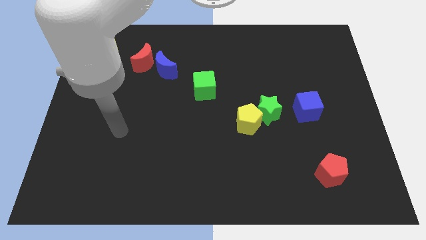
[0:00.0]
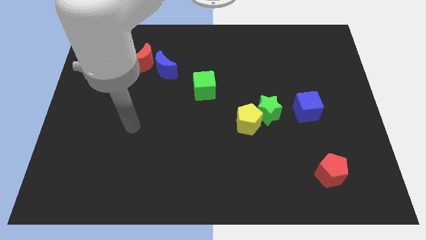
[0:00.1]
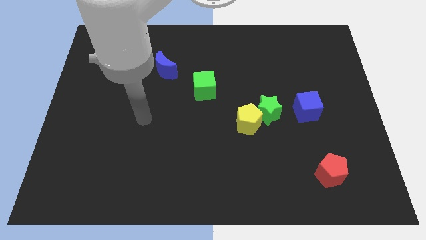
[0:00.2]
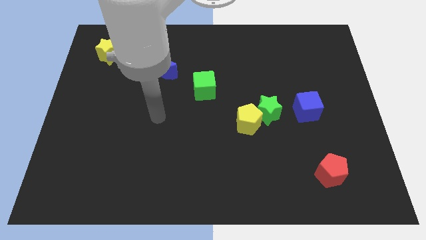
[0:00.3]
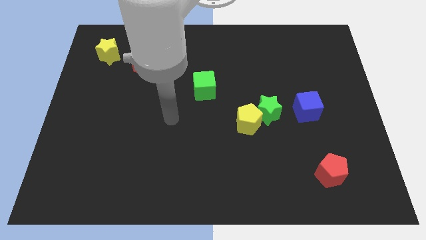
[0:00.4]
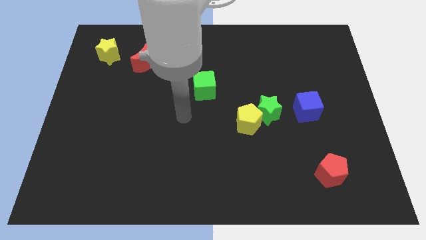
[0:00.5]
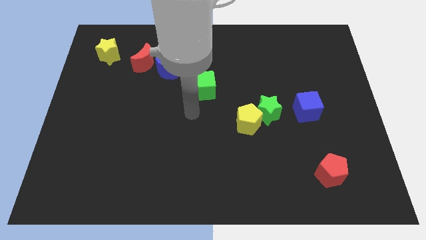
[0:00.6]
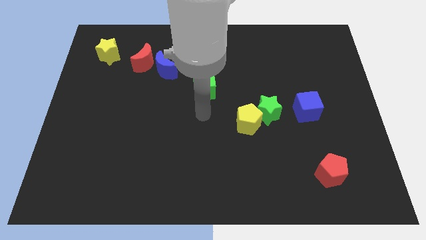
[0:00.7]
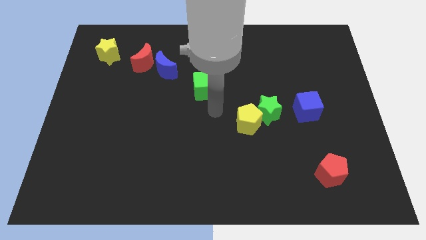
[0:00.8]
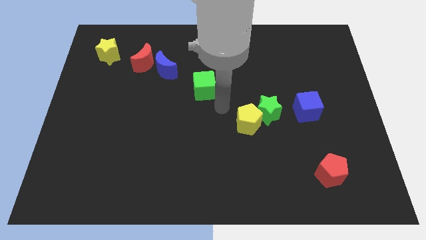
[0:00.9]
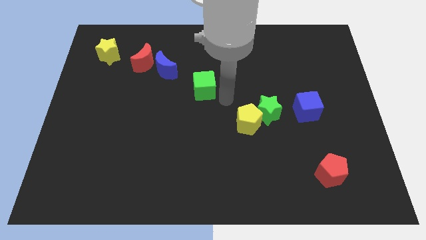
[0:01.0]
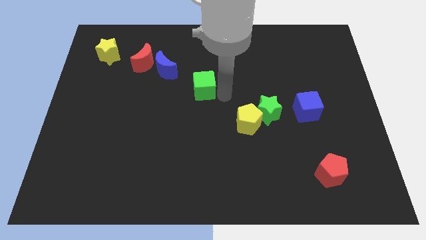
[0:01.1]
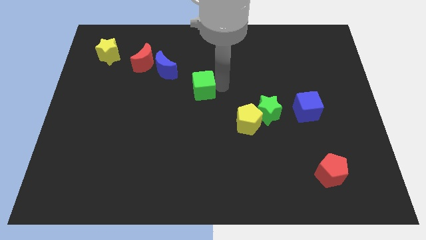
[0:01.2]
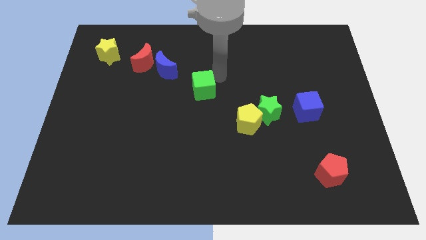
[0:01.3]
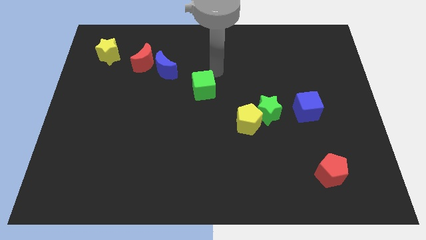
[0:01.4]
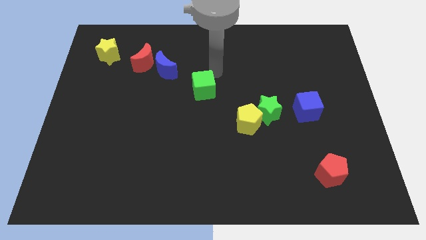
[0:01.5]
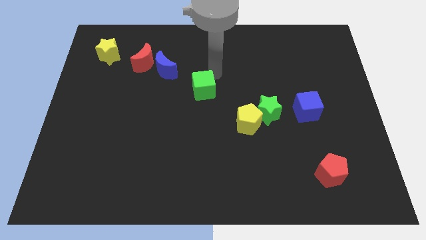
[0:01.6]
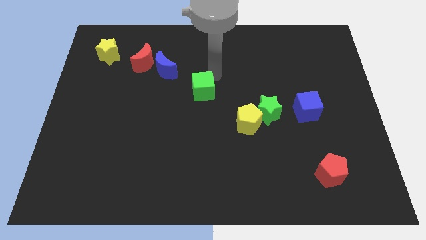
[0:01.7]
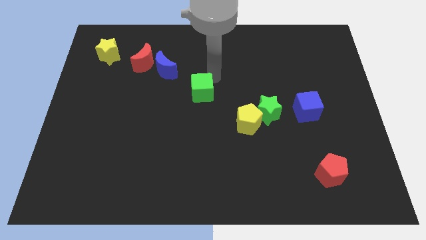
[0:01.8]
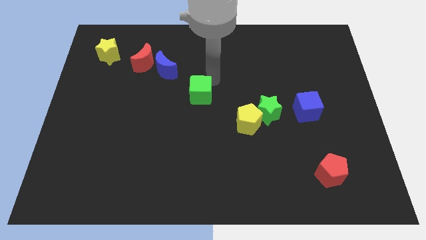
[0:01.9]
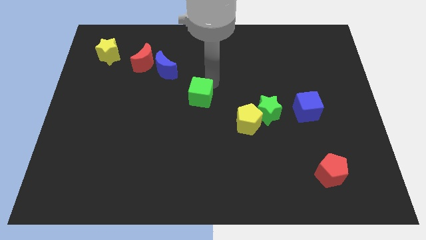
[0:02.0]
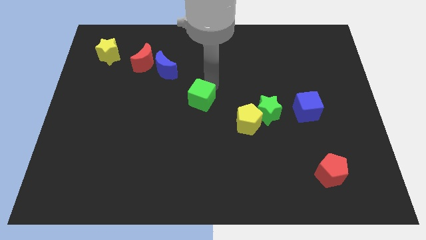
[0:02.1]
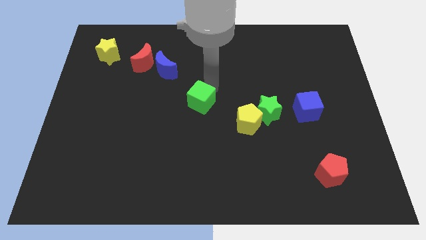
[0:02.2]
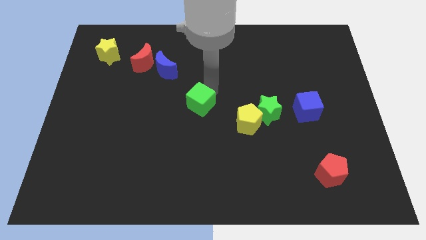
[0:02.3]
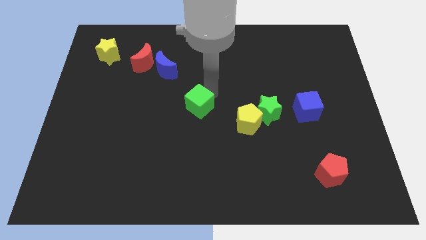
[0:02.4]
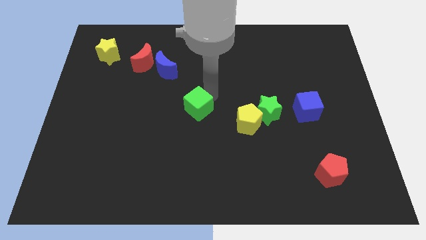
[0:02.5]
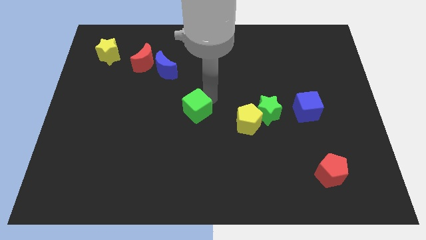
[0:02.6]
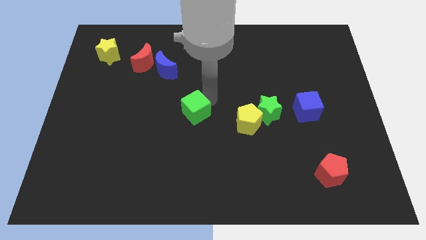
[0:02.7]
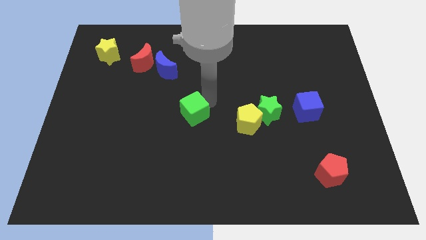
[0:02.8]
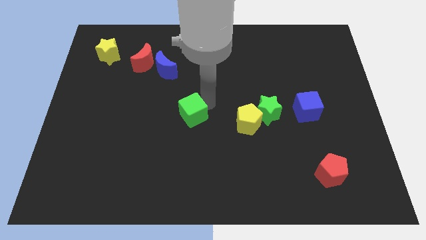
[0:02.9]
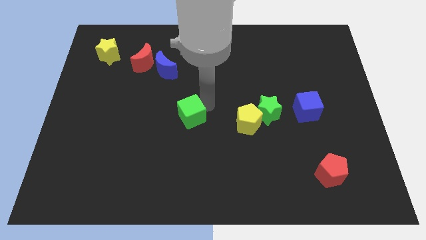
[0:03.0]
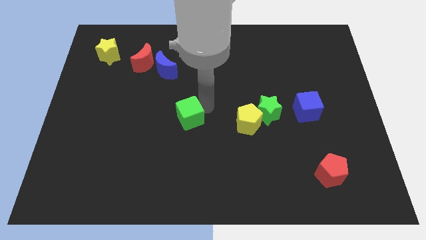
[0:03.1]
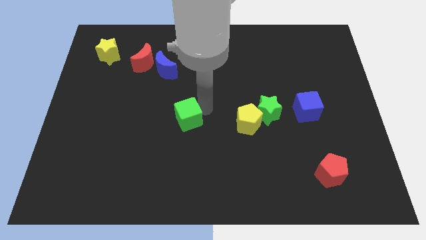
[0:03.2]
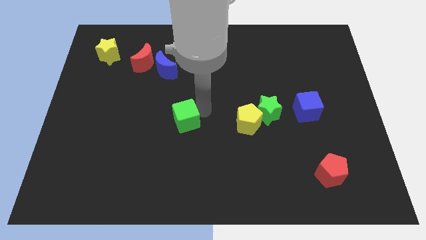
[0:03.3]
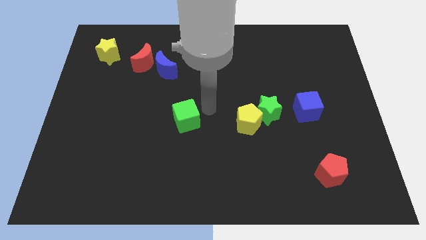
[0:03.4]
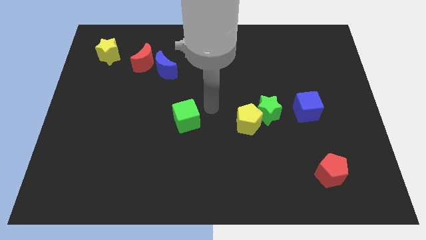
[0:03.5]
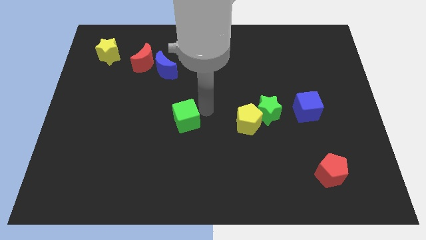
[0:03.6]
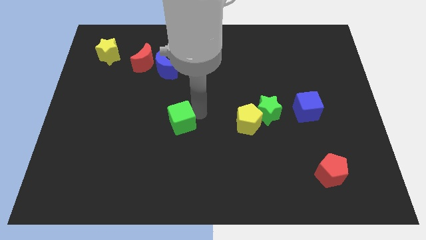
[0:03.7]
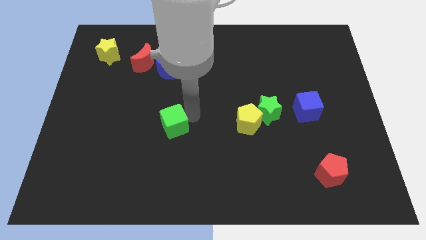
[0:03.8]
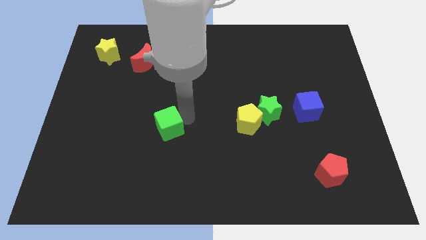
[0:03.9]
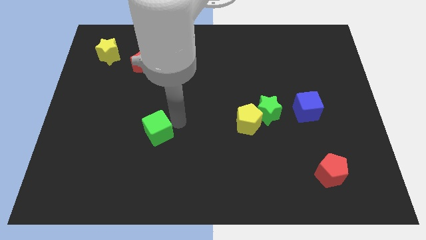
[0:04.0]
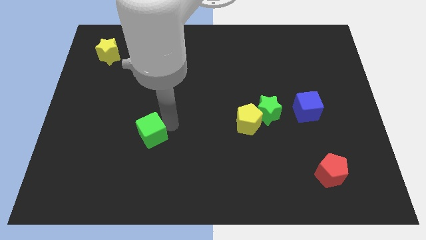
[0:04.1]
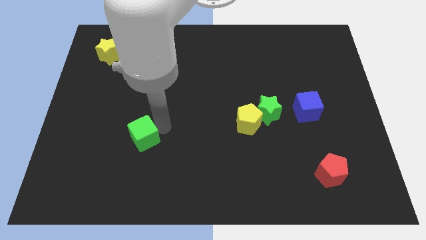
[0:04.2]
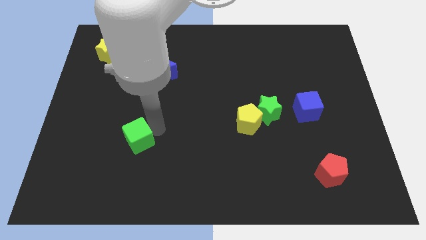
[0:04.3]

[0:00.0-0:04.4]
push the green cube down and to the left

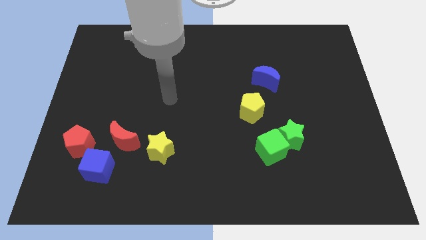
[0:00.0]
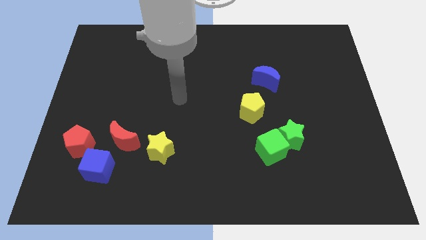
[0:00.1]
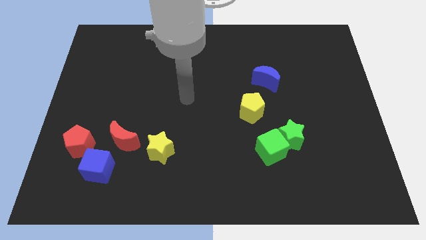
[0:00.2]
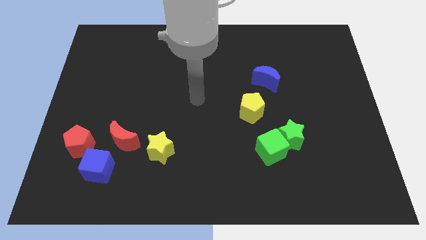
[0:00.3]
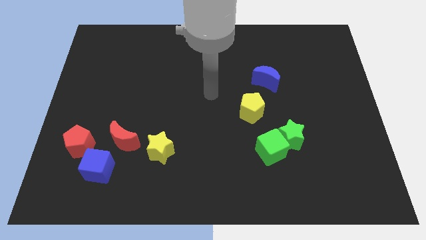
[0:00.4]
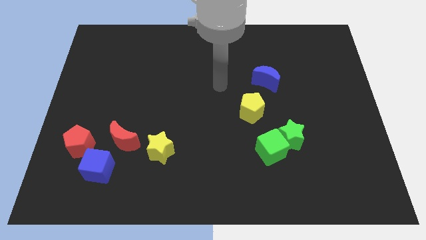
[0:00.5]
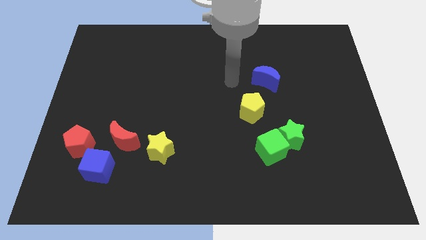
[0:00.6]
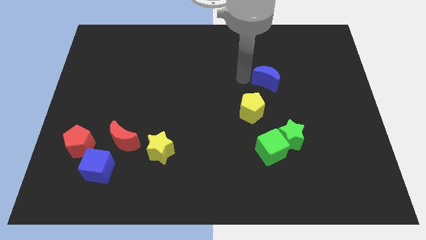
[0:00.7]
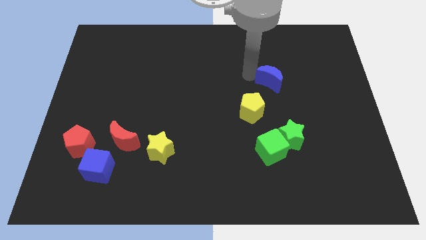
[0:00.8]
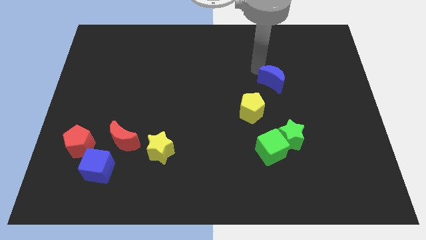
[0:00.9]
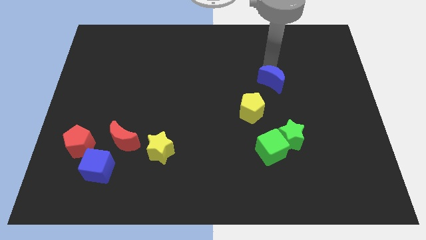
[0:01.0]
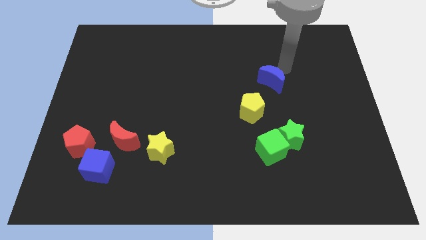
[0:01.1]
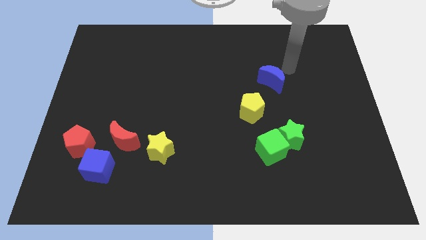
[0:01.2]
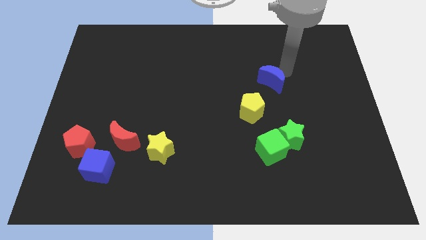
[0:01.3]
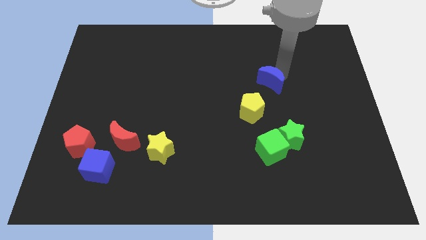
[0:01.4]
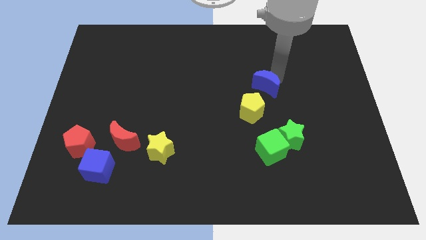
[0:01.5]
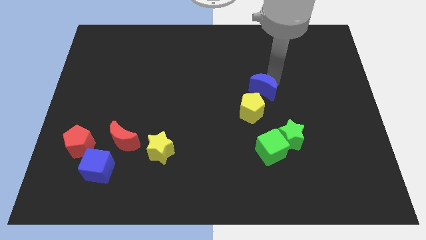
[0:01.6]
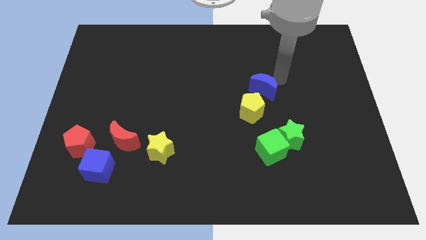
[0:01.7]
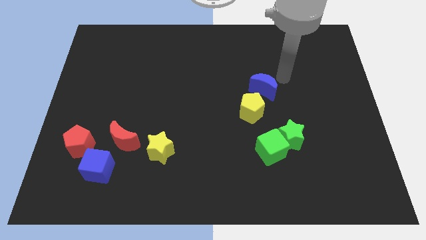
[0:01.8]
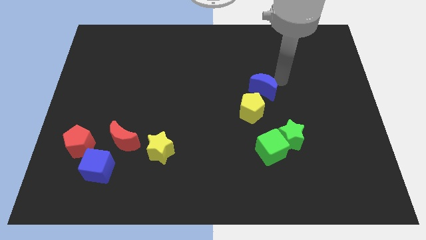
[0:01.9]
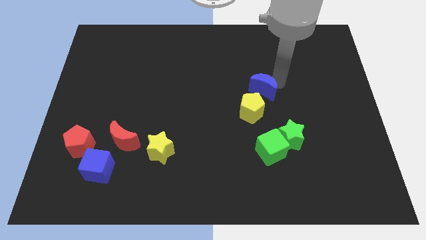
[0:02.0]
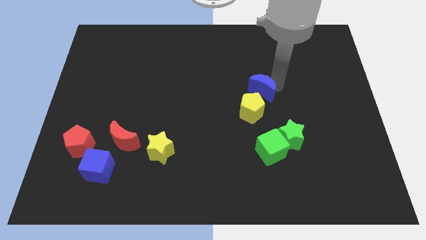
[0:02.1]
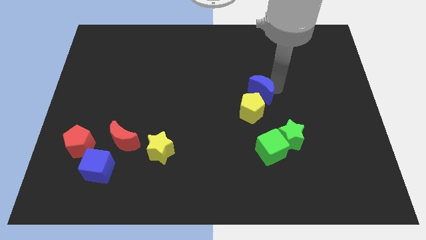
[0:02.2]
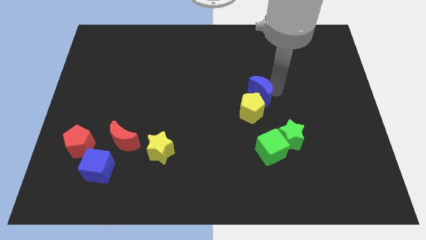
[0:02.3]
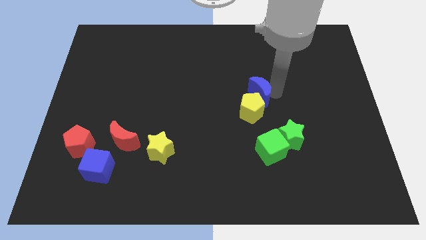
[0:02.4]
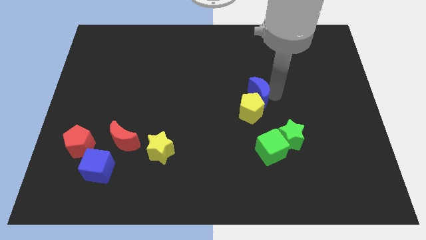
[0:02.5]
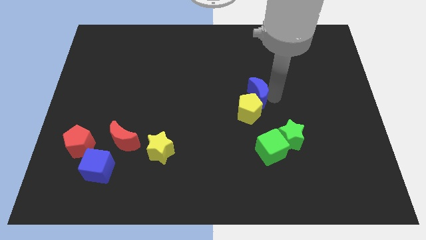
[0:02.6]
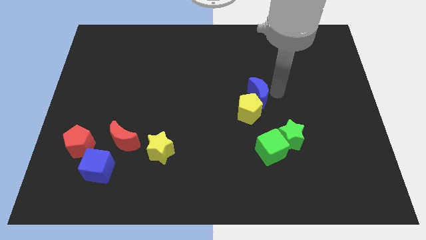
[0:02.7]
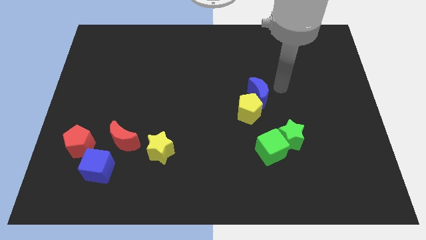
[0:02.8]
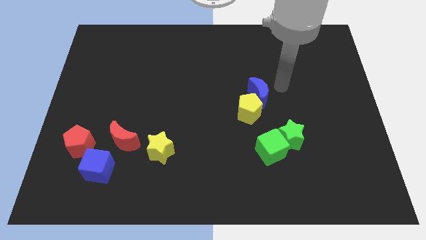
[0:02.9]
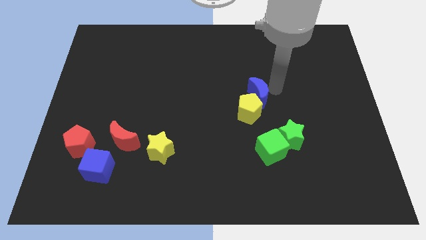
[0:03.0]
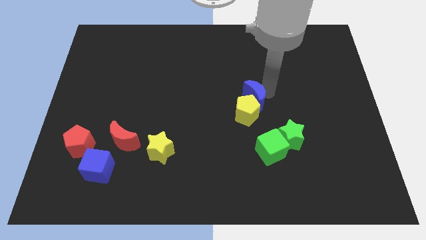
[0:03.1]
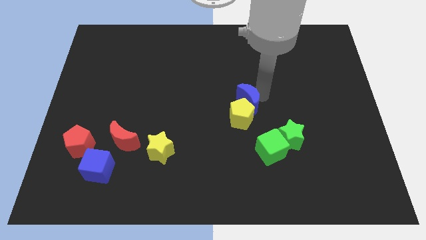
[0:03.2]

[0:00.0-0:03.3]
push the blue moon slightly downwards and left

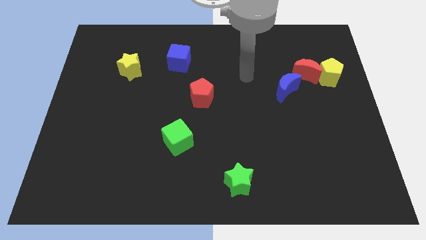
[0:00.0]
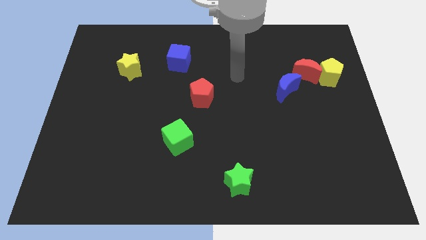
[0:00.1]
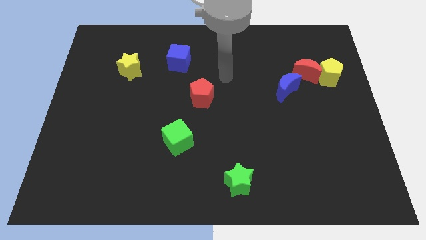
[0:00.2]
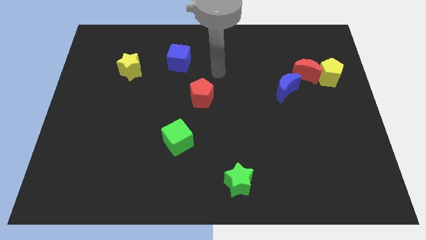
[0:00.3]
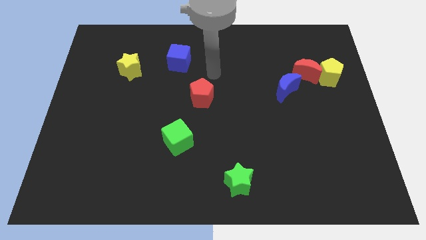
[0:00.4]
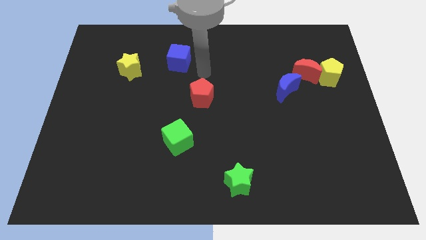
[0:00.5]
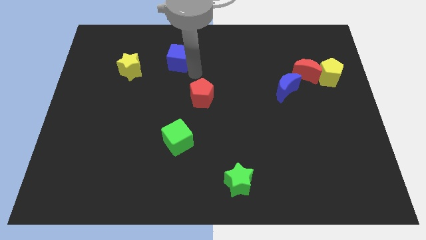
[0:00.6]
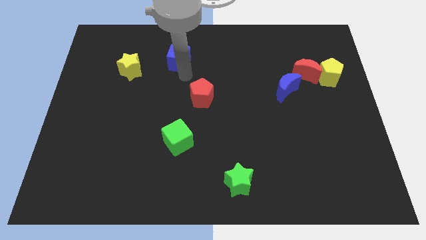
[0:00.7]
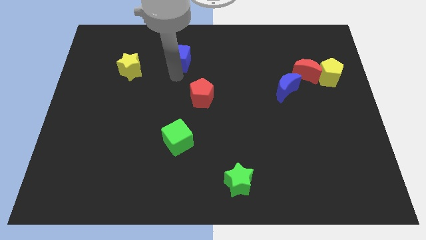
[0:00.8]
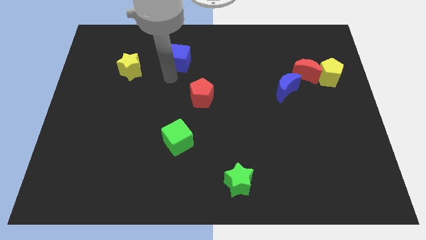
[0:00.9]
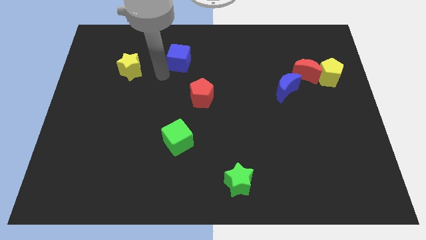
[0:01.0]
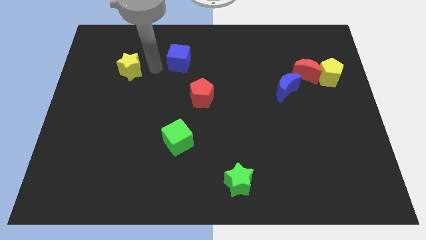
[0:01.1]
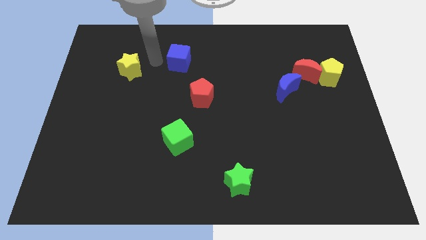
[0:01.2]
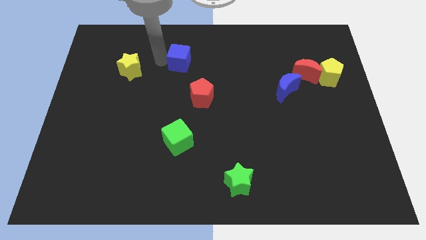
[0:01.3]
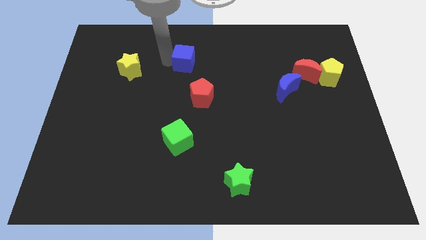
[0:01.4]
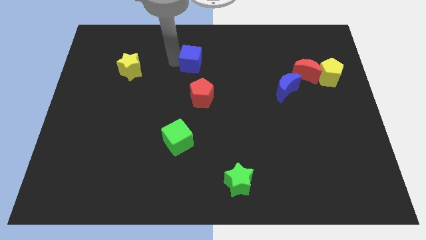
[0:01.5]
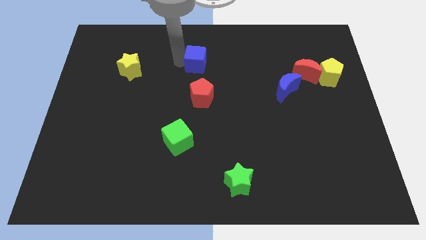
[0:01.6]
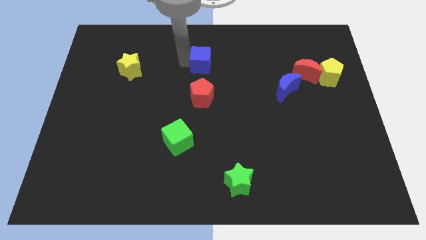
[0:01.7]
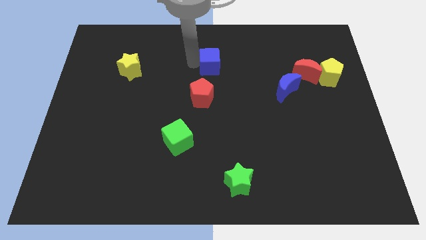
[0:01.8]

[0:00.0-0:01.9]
slightly push the blue cube to the right
